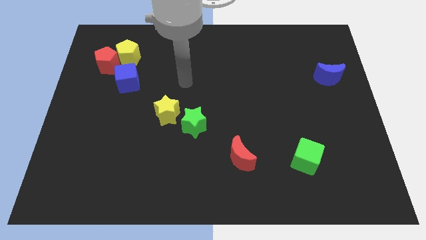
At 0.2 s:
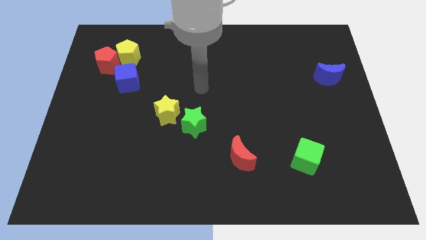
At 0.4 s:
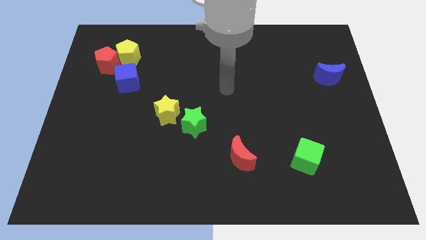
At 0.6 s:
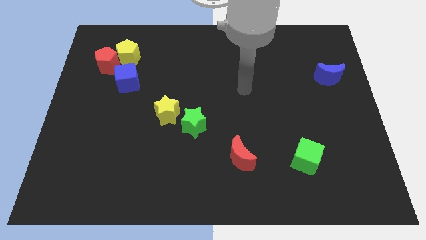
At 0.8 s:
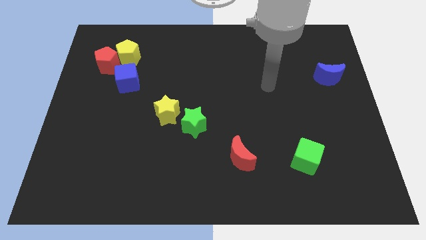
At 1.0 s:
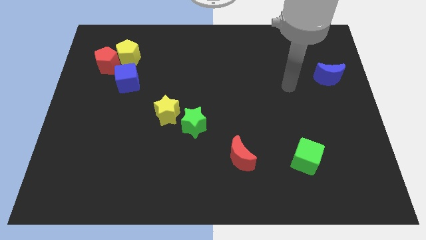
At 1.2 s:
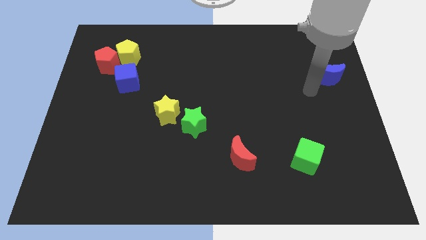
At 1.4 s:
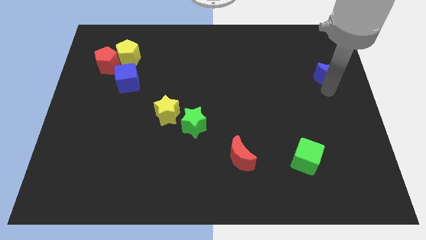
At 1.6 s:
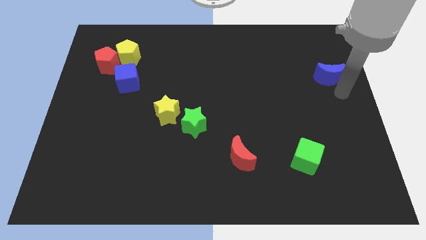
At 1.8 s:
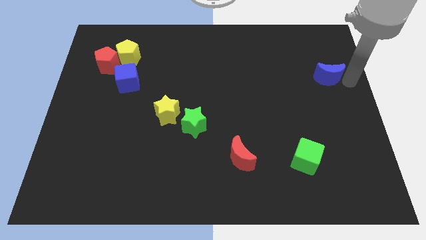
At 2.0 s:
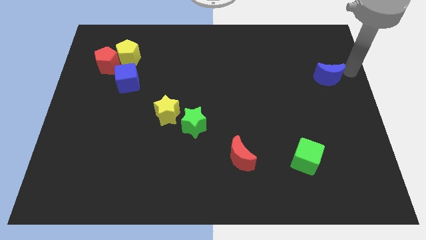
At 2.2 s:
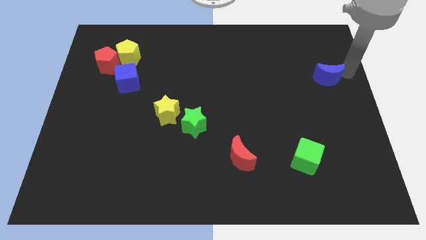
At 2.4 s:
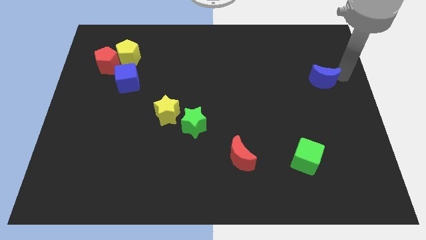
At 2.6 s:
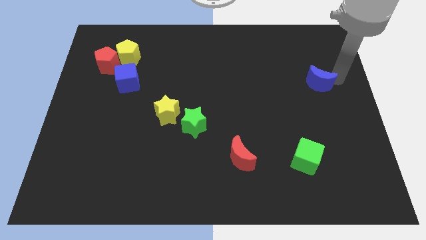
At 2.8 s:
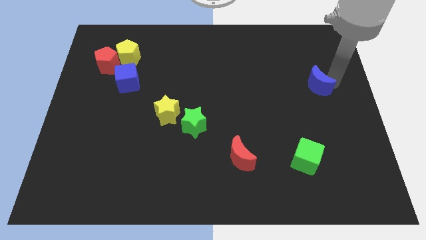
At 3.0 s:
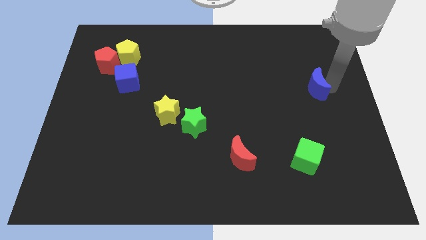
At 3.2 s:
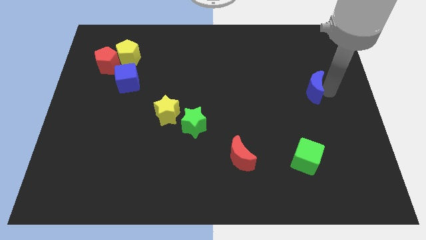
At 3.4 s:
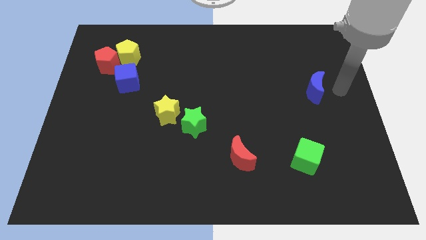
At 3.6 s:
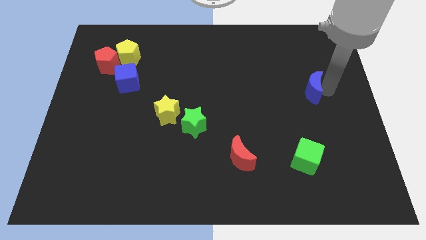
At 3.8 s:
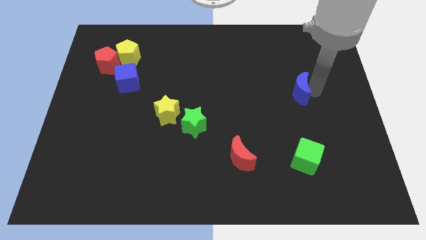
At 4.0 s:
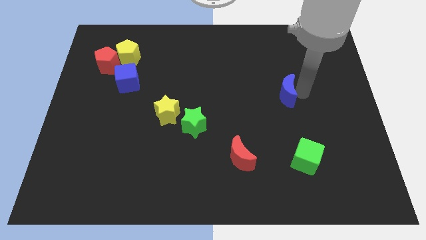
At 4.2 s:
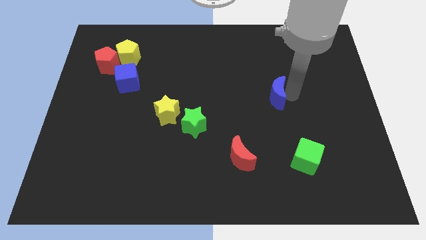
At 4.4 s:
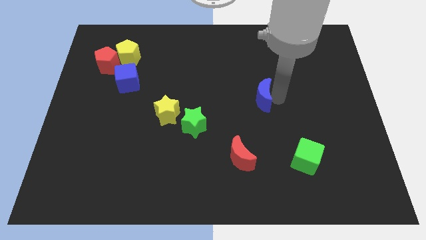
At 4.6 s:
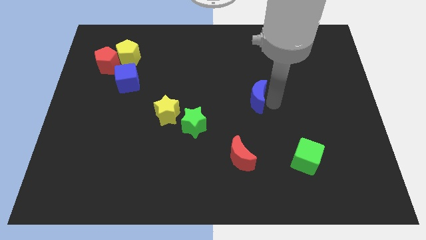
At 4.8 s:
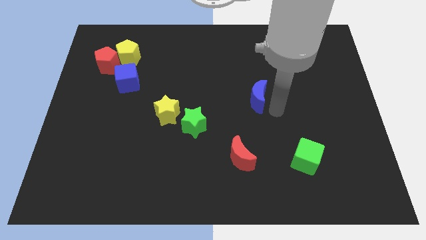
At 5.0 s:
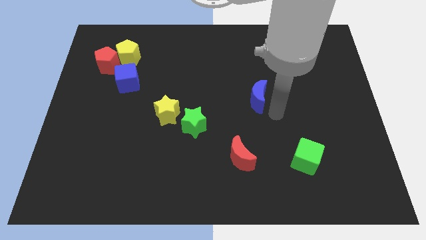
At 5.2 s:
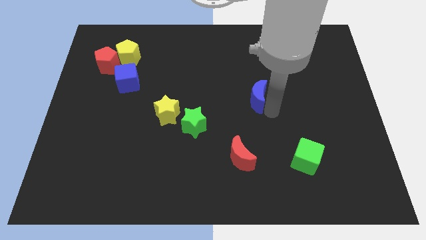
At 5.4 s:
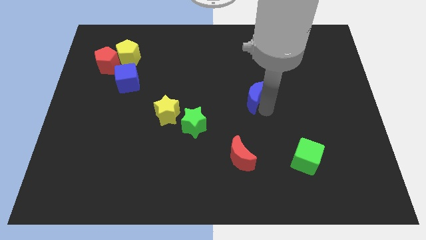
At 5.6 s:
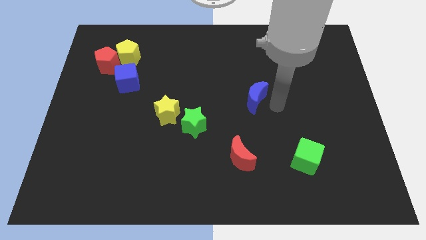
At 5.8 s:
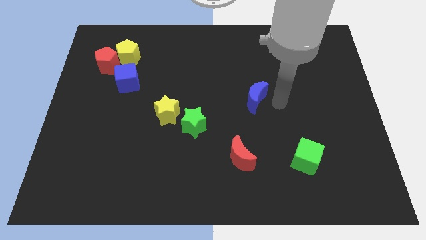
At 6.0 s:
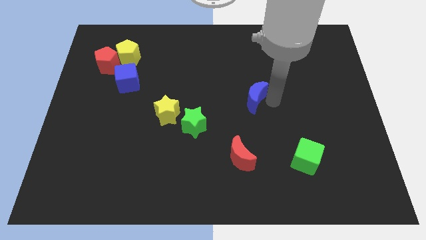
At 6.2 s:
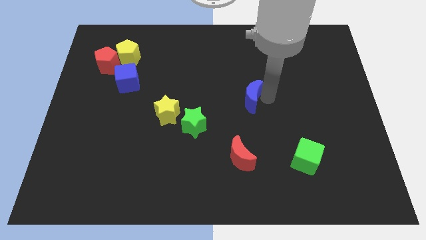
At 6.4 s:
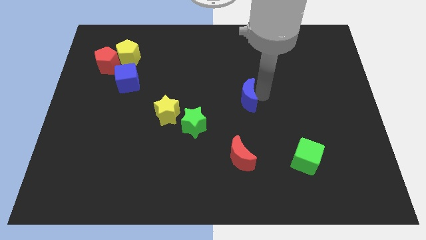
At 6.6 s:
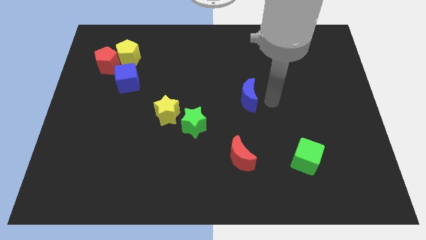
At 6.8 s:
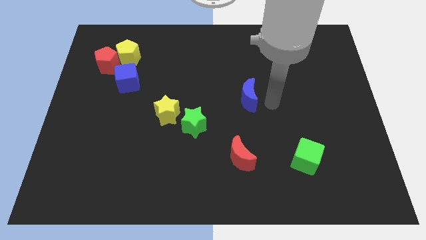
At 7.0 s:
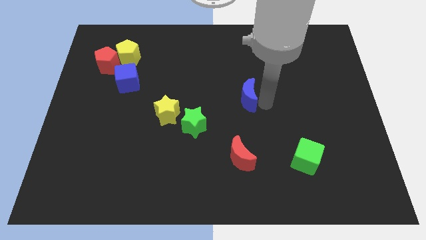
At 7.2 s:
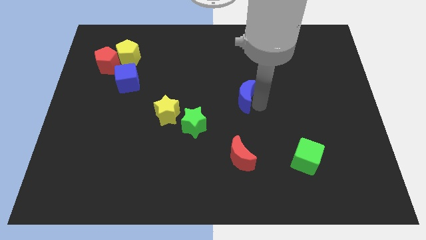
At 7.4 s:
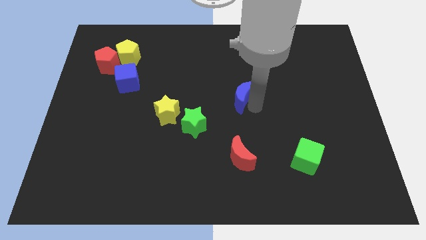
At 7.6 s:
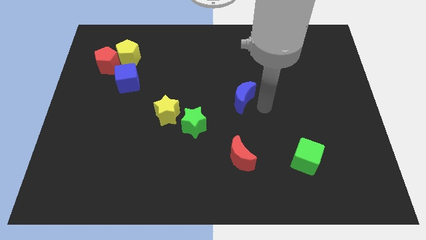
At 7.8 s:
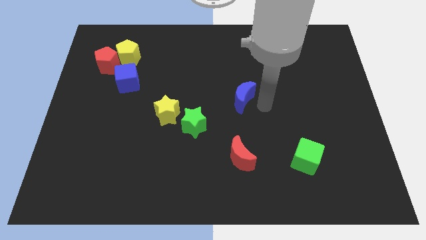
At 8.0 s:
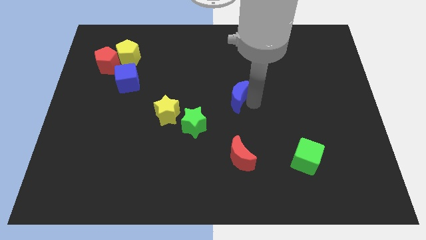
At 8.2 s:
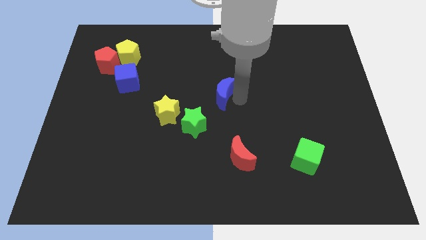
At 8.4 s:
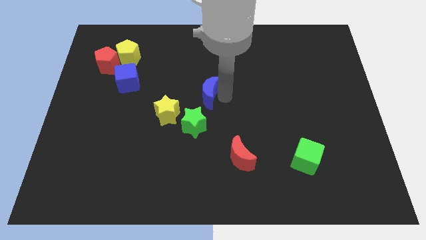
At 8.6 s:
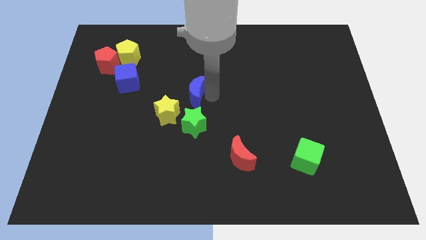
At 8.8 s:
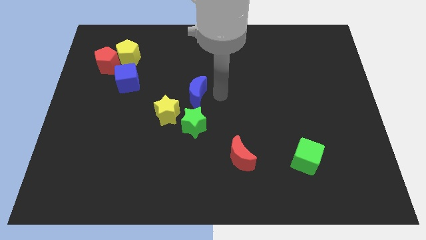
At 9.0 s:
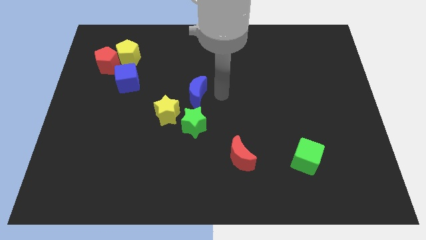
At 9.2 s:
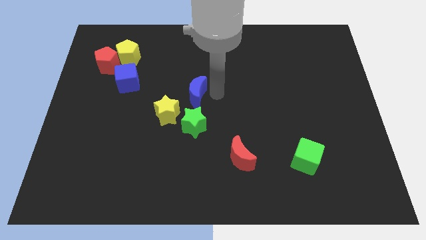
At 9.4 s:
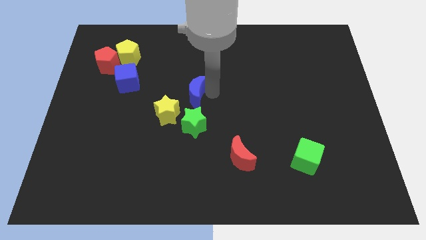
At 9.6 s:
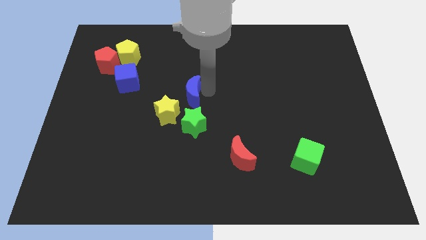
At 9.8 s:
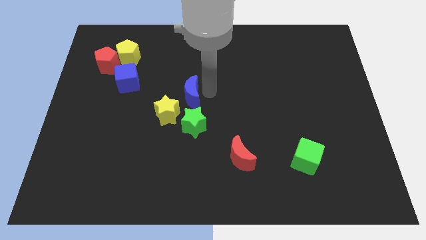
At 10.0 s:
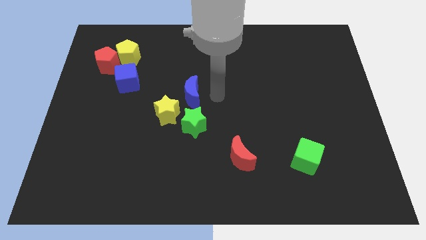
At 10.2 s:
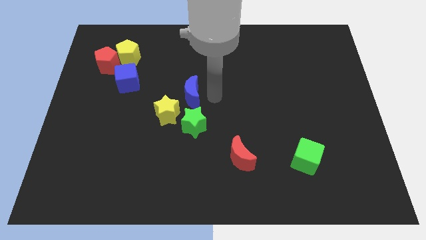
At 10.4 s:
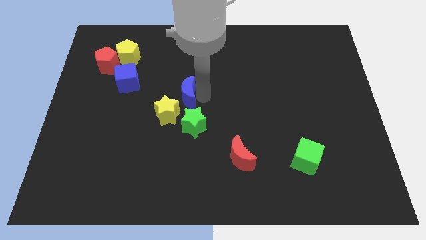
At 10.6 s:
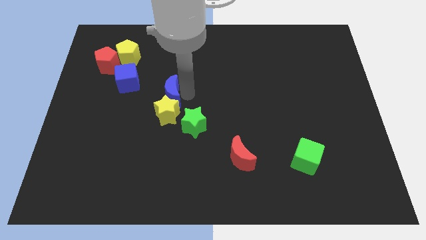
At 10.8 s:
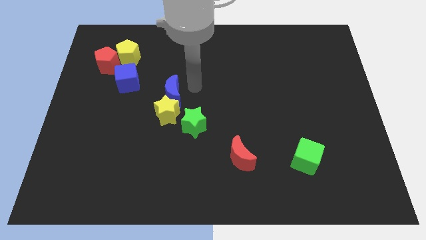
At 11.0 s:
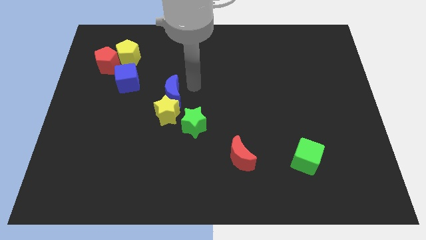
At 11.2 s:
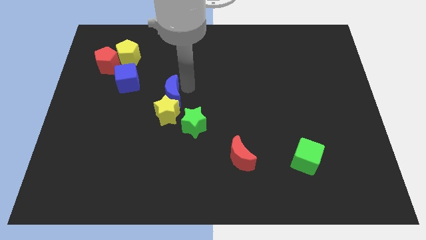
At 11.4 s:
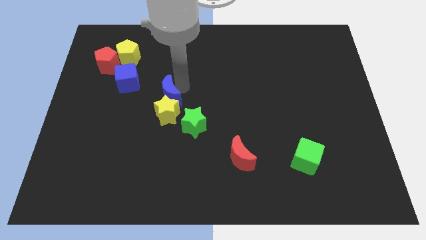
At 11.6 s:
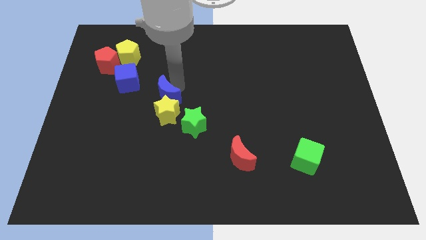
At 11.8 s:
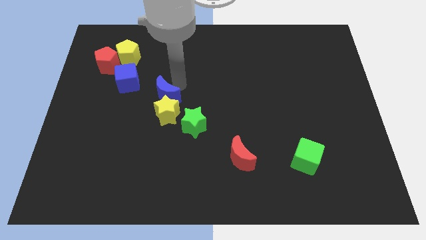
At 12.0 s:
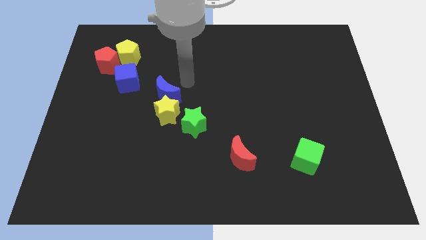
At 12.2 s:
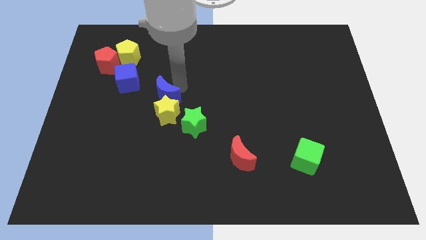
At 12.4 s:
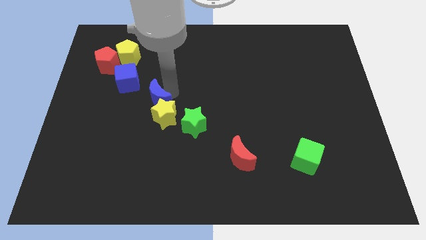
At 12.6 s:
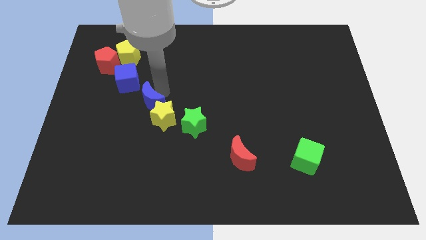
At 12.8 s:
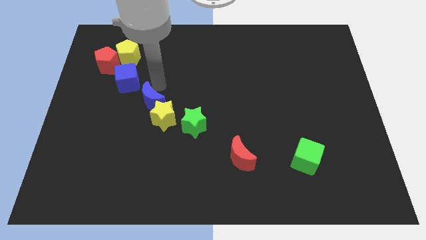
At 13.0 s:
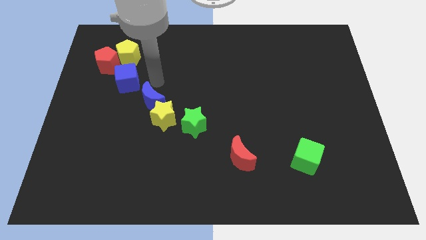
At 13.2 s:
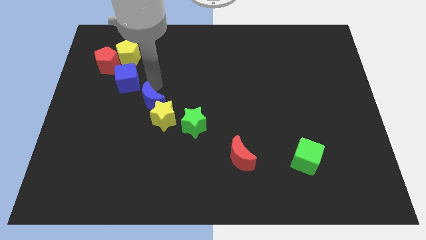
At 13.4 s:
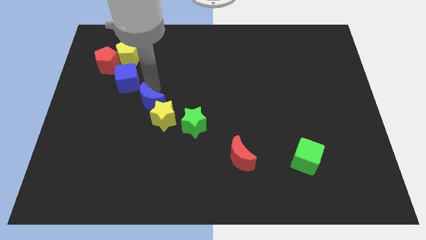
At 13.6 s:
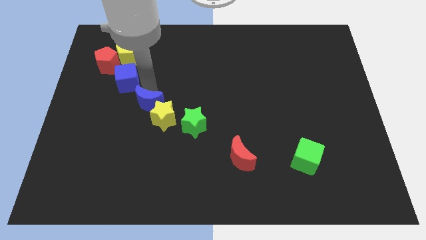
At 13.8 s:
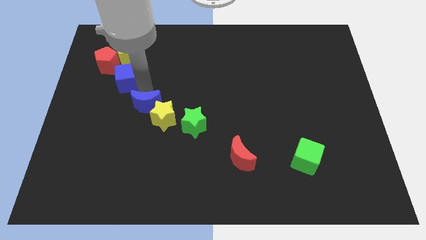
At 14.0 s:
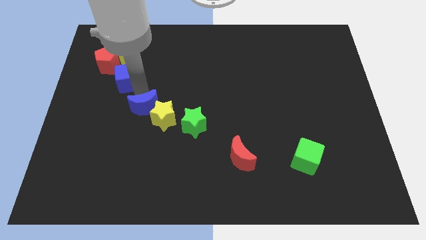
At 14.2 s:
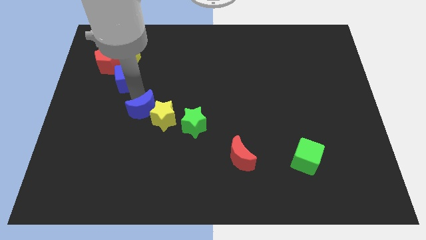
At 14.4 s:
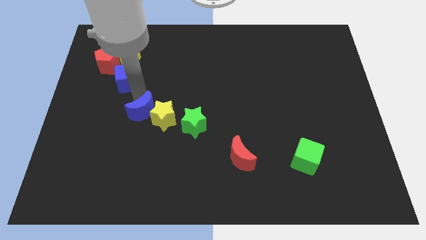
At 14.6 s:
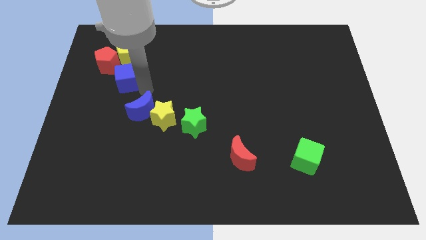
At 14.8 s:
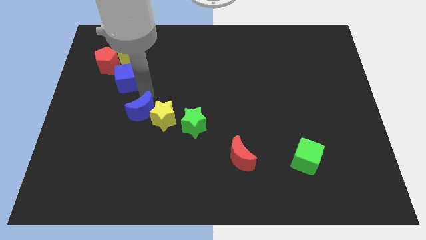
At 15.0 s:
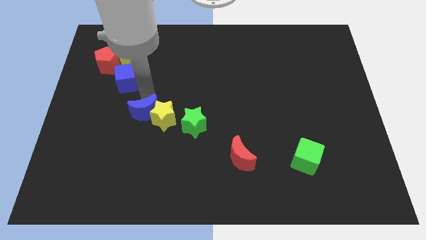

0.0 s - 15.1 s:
slide the blue moon to the bottom left side of the yellow star
